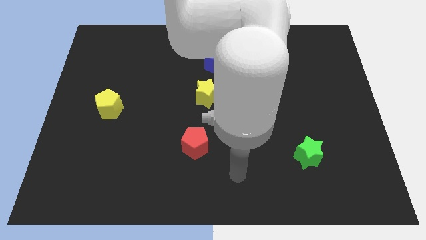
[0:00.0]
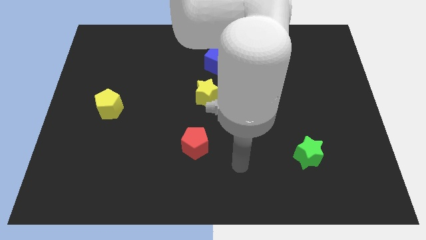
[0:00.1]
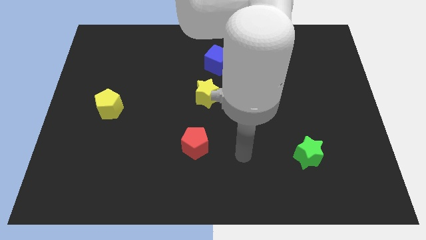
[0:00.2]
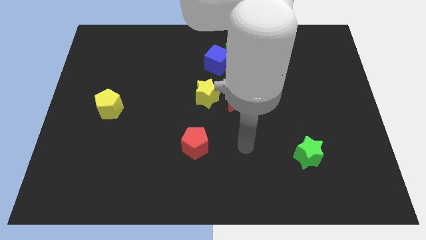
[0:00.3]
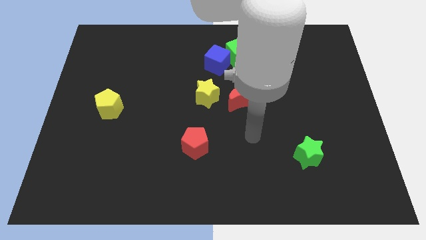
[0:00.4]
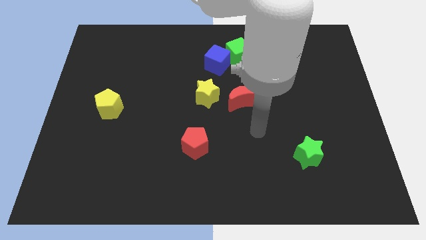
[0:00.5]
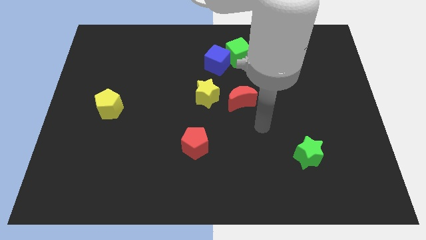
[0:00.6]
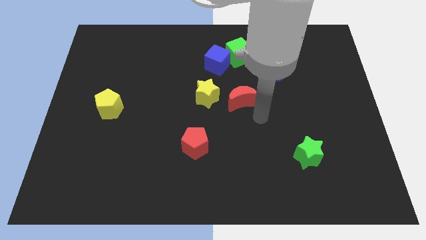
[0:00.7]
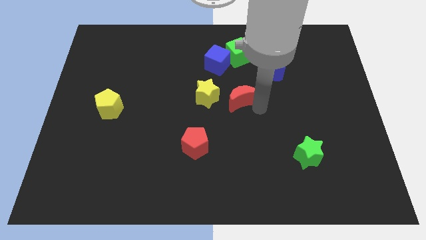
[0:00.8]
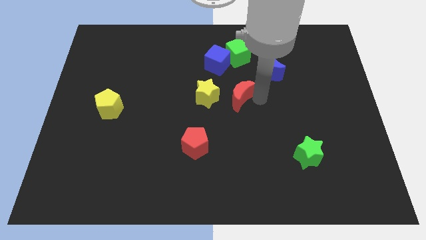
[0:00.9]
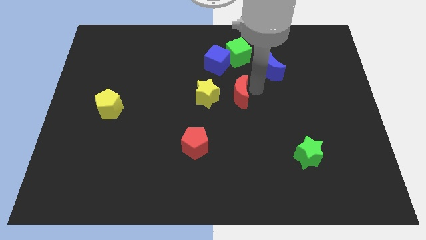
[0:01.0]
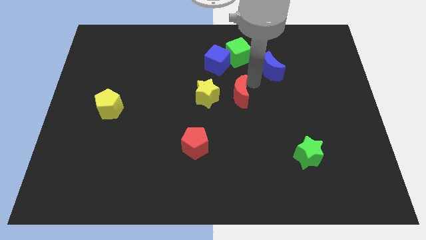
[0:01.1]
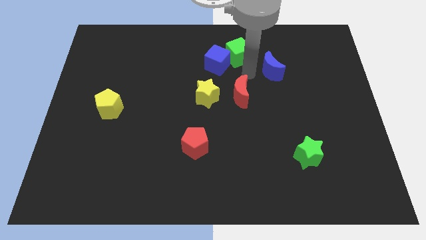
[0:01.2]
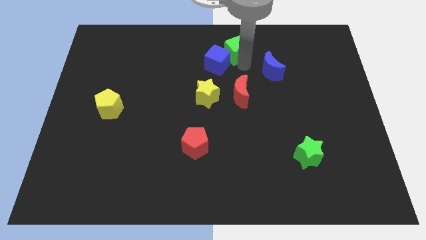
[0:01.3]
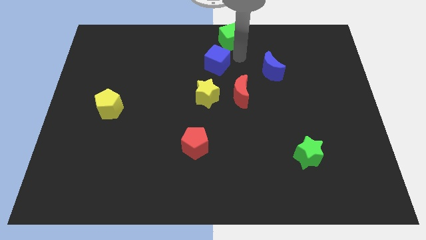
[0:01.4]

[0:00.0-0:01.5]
pull the blue cube apart from the green cube

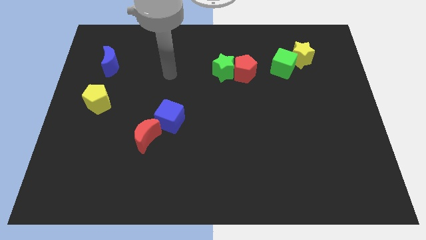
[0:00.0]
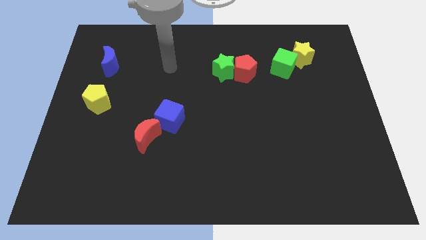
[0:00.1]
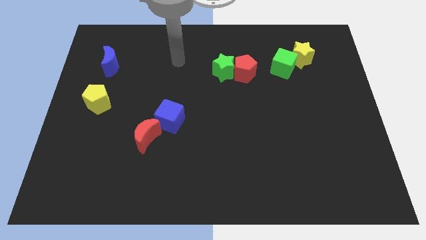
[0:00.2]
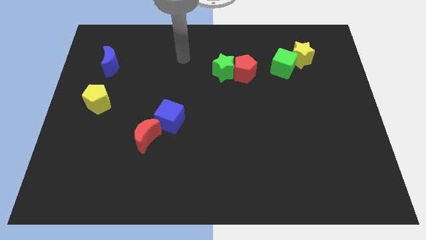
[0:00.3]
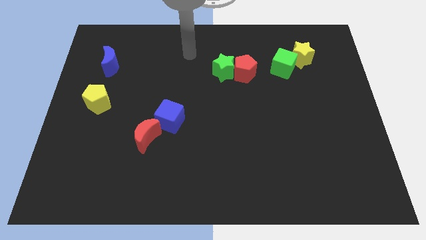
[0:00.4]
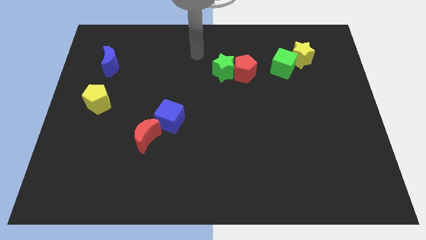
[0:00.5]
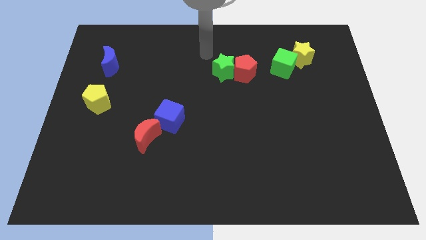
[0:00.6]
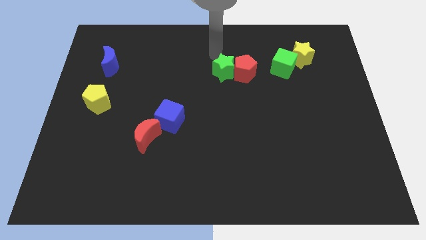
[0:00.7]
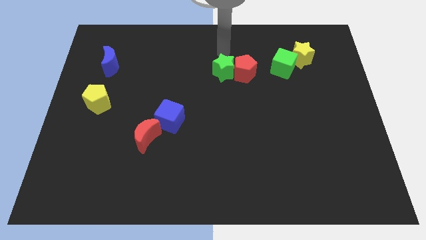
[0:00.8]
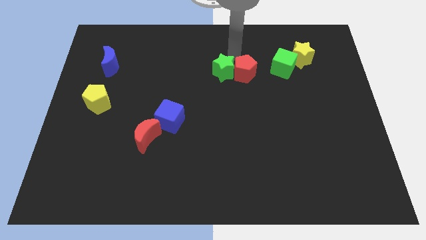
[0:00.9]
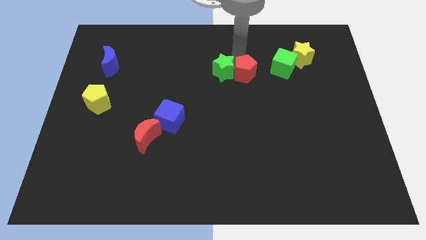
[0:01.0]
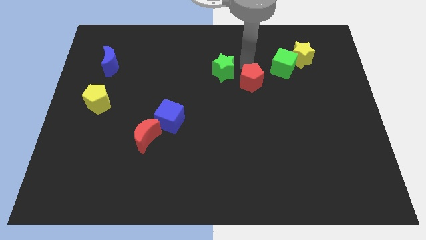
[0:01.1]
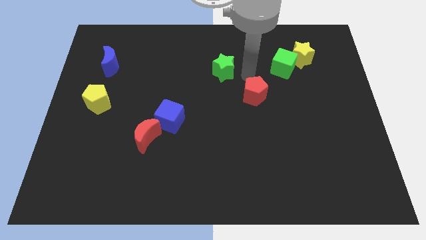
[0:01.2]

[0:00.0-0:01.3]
separate the green star from the red pentagon

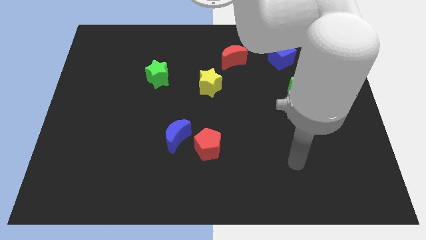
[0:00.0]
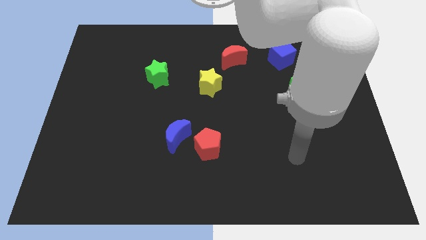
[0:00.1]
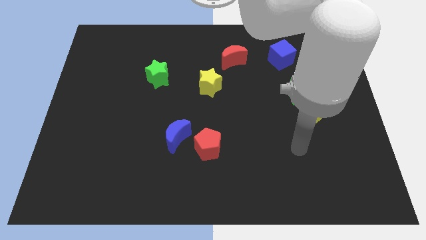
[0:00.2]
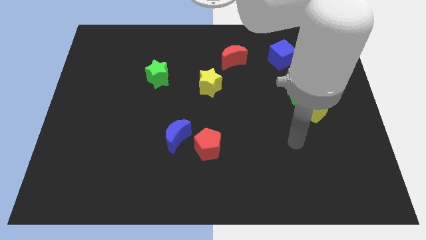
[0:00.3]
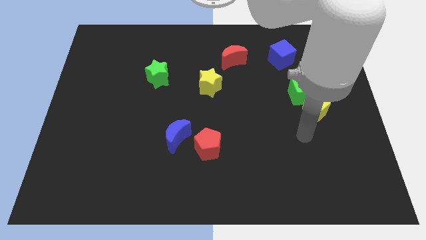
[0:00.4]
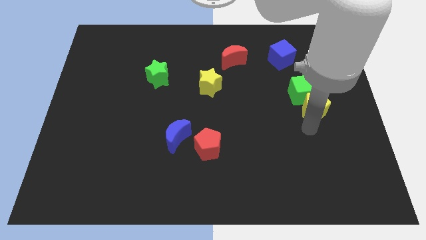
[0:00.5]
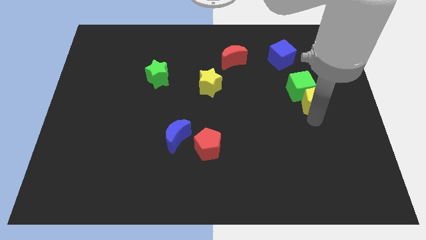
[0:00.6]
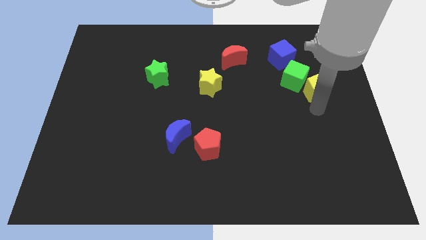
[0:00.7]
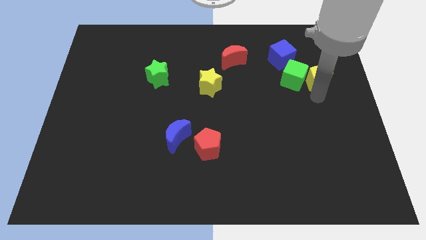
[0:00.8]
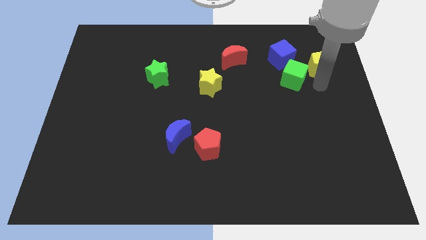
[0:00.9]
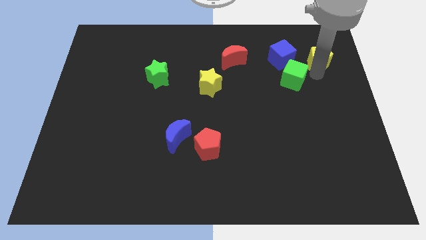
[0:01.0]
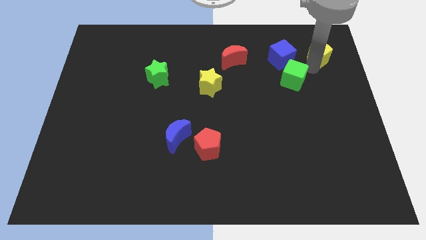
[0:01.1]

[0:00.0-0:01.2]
move the green cube away from the yellow pentagon

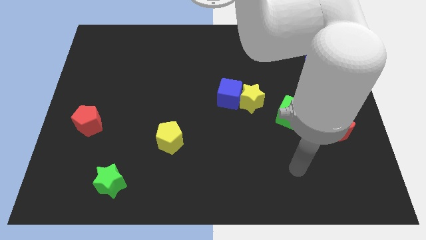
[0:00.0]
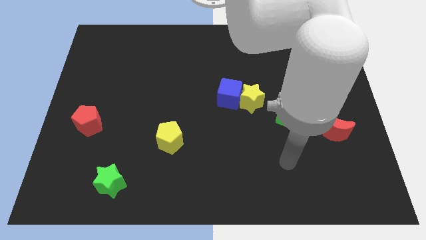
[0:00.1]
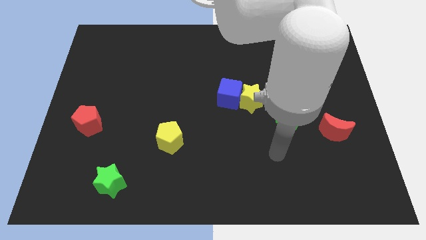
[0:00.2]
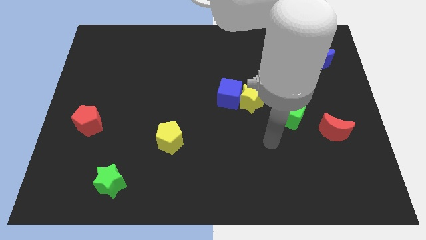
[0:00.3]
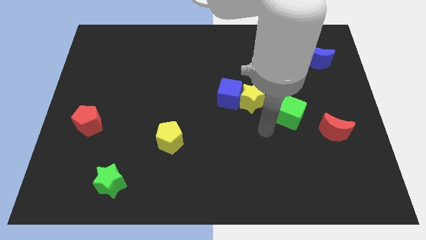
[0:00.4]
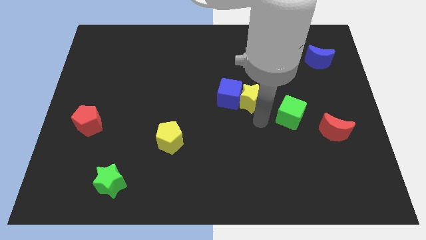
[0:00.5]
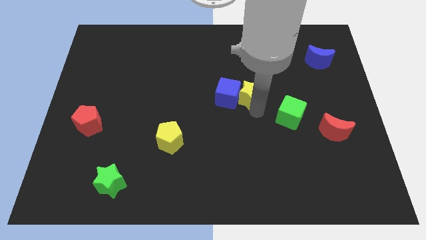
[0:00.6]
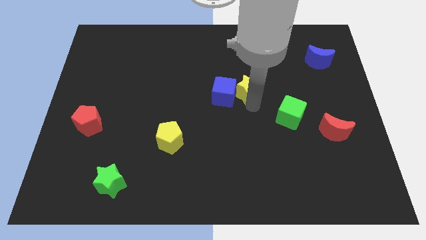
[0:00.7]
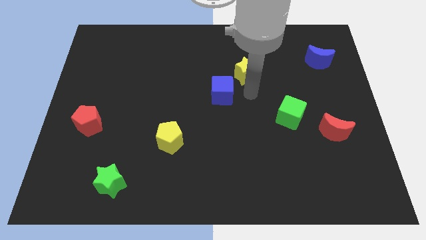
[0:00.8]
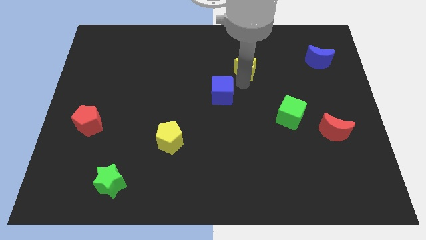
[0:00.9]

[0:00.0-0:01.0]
move the blue cube away from the yellow star

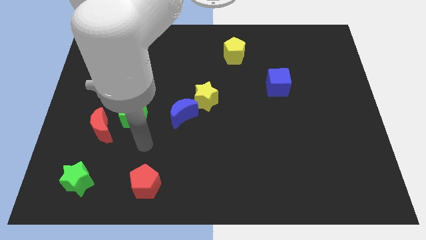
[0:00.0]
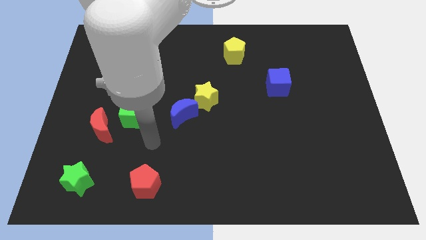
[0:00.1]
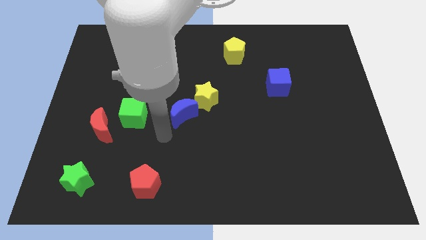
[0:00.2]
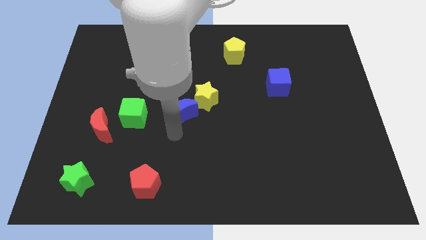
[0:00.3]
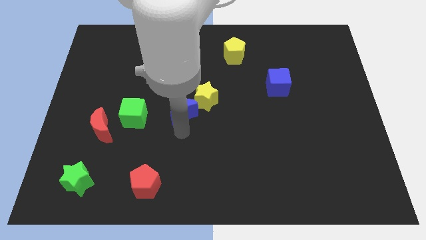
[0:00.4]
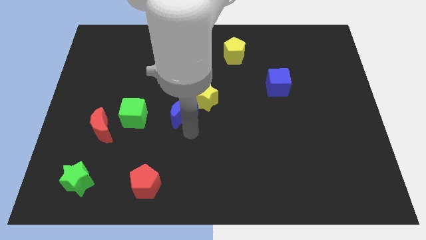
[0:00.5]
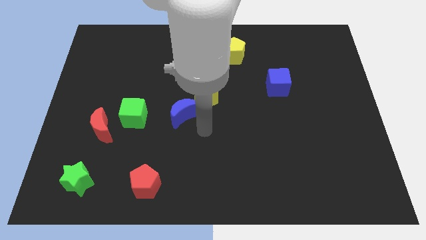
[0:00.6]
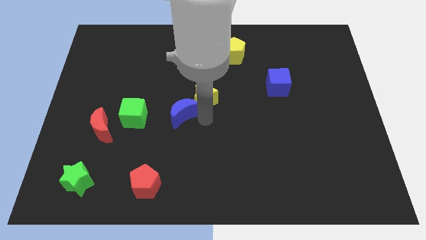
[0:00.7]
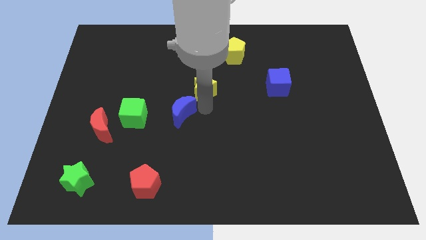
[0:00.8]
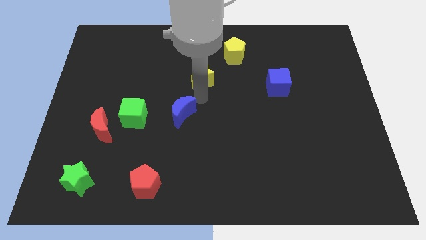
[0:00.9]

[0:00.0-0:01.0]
pull the blue moon apart from the yellow star

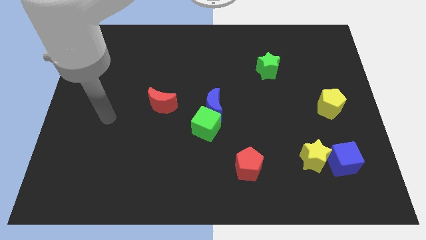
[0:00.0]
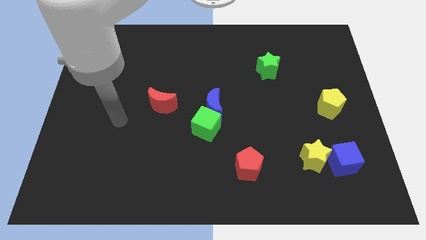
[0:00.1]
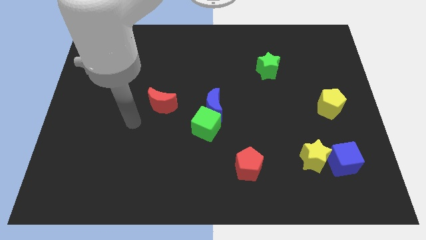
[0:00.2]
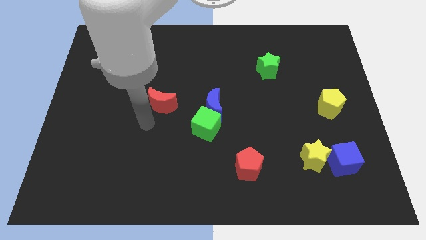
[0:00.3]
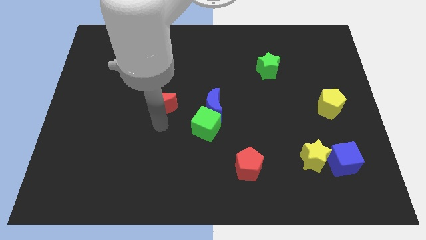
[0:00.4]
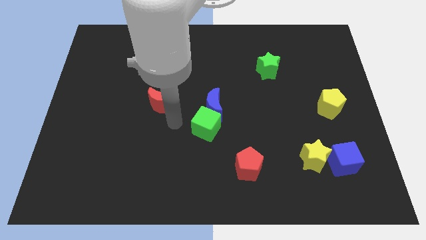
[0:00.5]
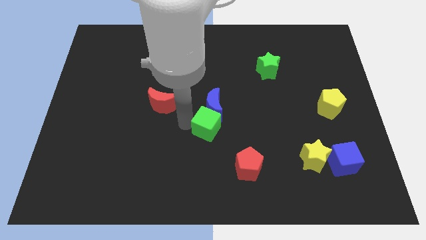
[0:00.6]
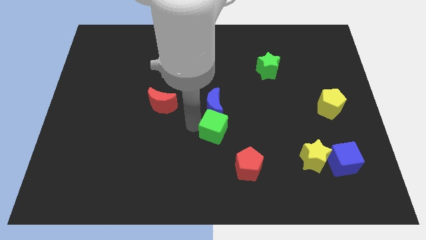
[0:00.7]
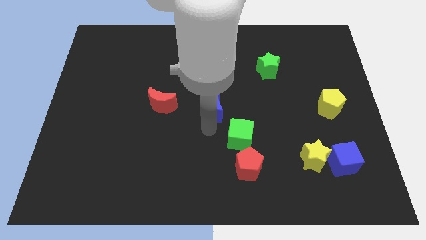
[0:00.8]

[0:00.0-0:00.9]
move the blue moon away from the green cube

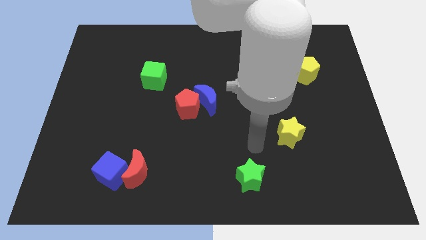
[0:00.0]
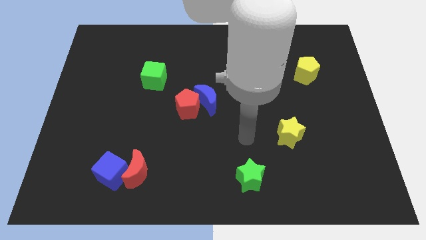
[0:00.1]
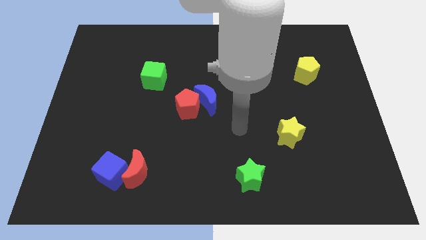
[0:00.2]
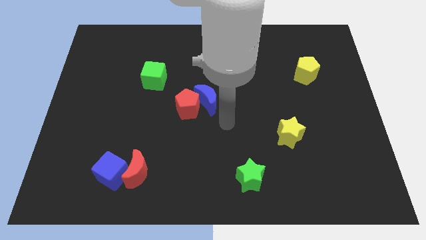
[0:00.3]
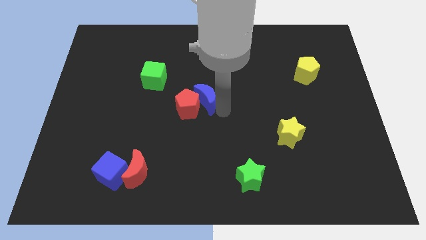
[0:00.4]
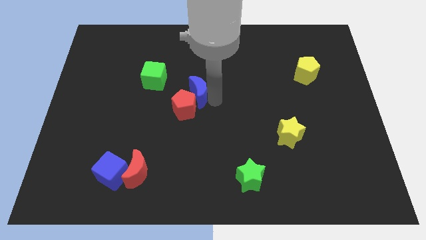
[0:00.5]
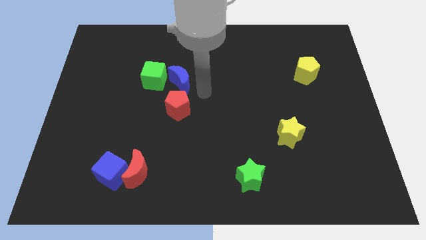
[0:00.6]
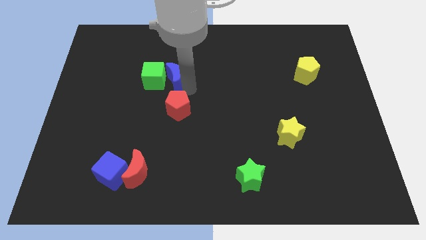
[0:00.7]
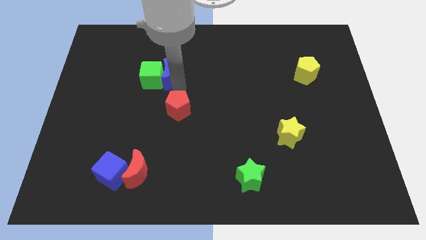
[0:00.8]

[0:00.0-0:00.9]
move the red pentagon away from the blue moon

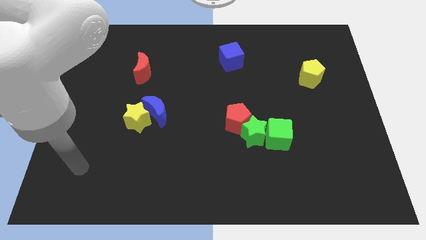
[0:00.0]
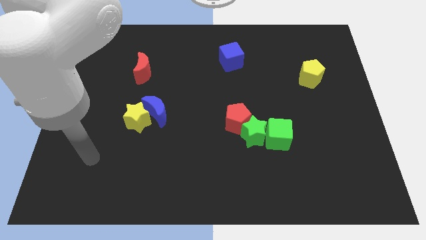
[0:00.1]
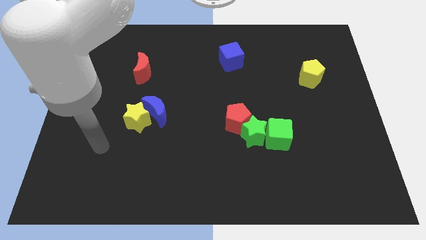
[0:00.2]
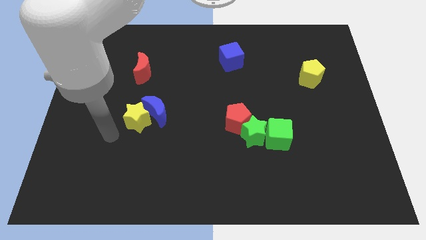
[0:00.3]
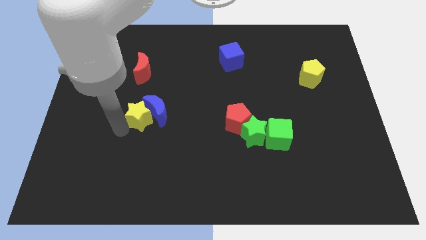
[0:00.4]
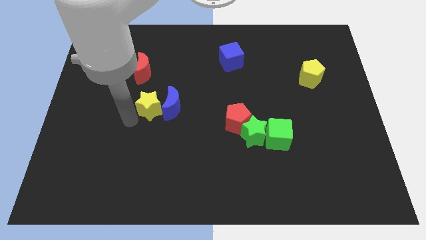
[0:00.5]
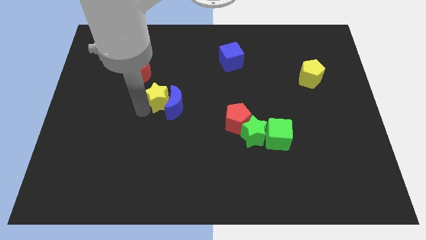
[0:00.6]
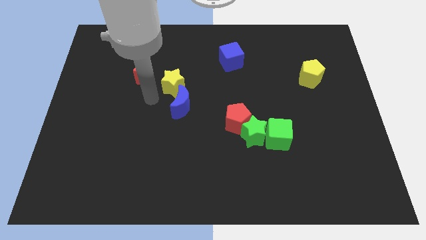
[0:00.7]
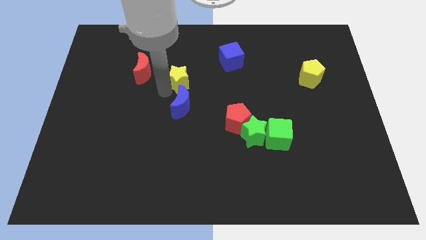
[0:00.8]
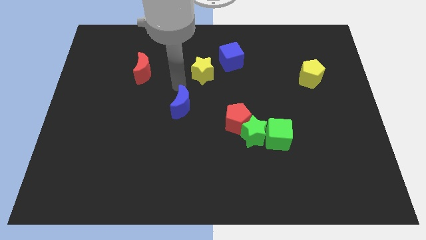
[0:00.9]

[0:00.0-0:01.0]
move the blue moon away from the yellow star

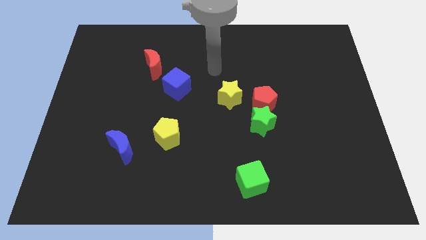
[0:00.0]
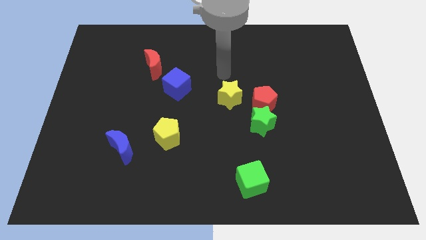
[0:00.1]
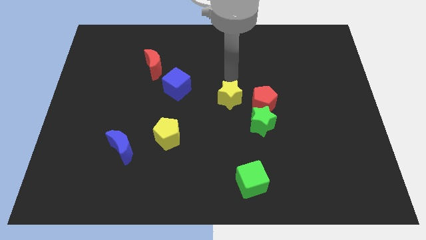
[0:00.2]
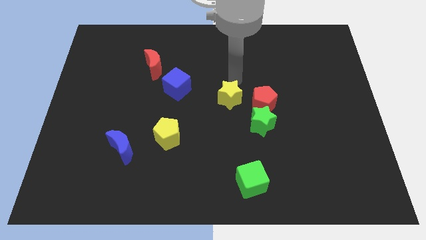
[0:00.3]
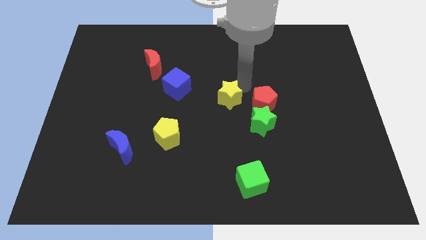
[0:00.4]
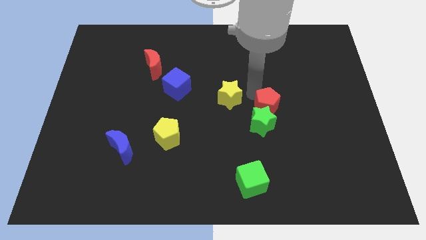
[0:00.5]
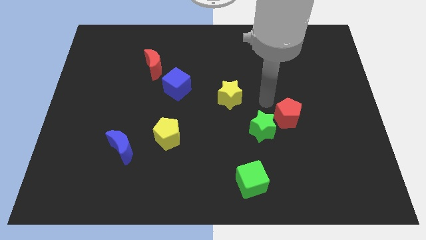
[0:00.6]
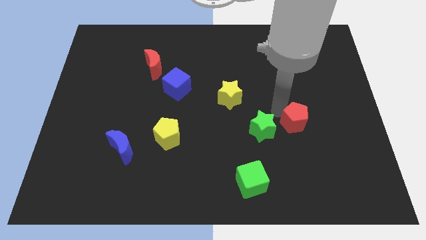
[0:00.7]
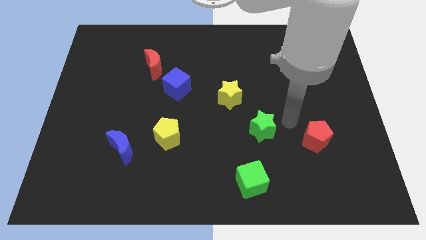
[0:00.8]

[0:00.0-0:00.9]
pull the green star apart from the red pentagon
